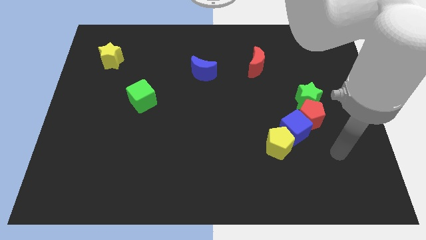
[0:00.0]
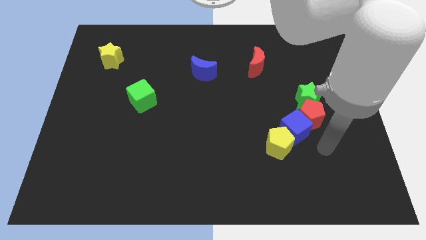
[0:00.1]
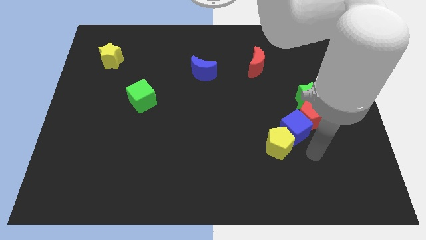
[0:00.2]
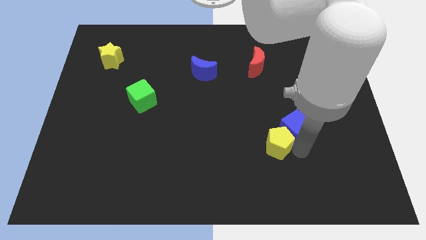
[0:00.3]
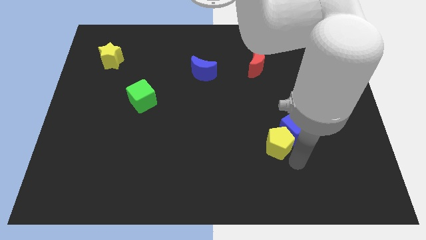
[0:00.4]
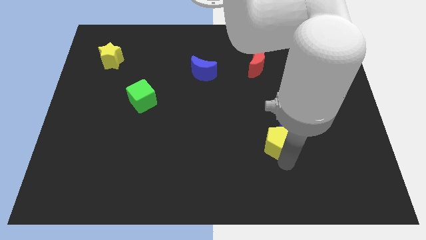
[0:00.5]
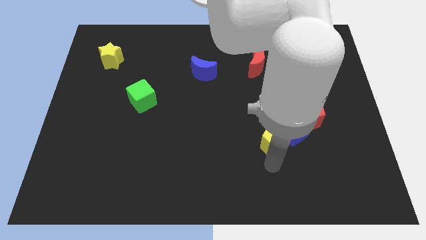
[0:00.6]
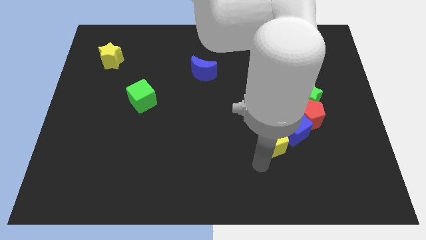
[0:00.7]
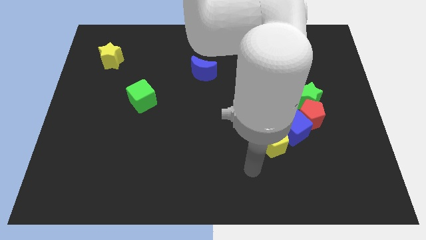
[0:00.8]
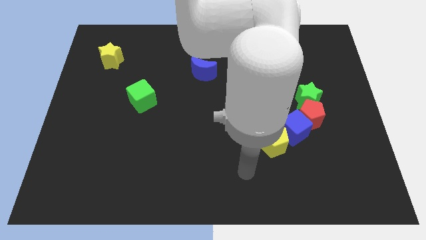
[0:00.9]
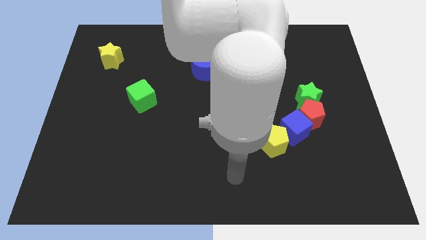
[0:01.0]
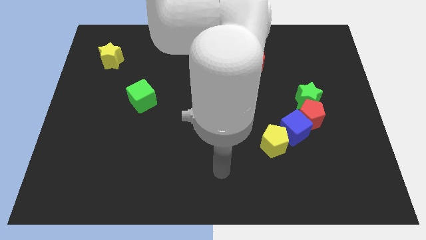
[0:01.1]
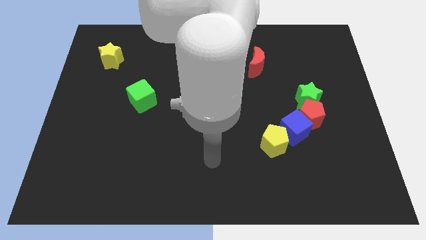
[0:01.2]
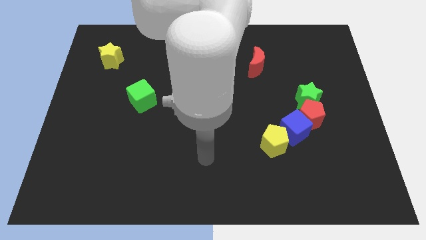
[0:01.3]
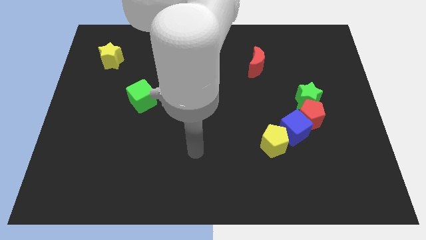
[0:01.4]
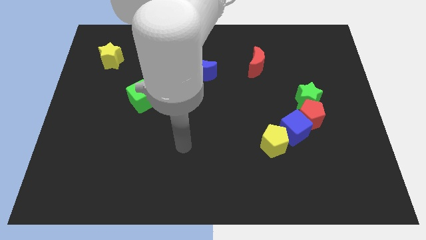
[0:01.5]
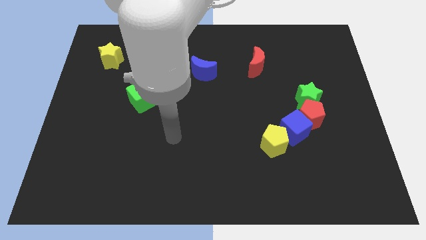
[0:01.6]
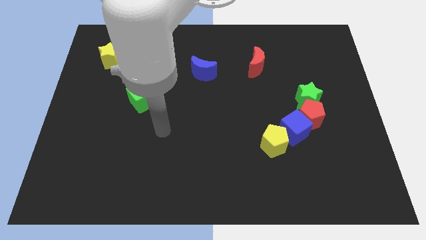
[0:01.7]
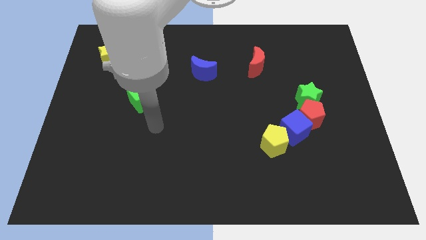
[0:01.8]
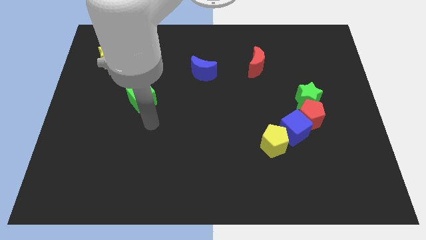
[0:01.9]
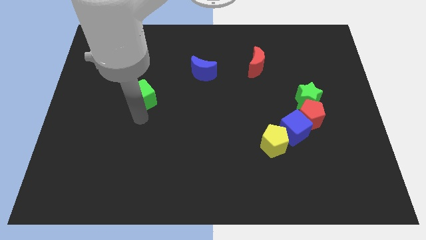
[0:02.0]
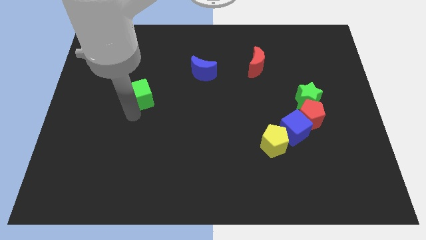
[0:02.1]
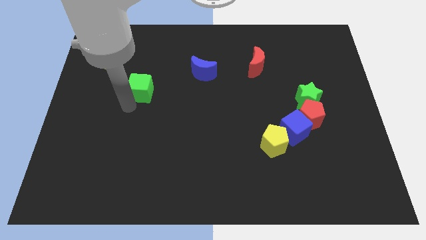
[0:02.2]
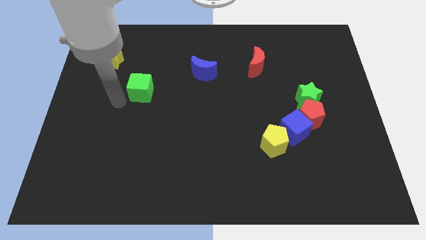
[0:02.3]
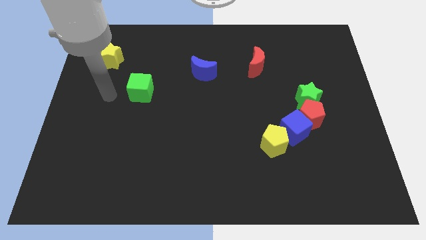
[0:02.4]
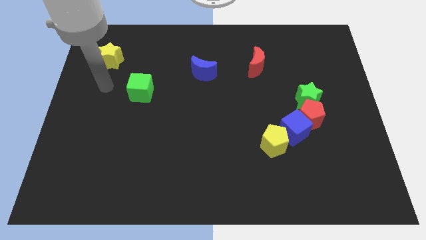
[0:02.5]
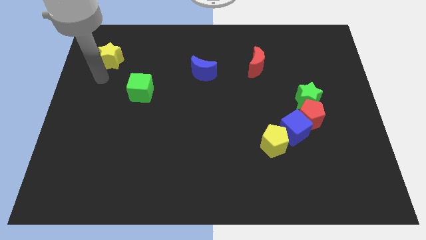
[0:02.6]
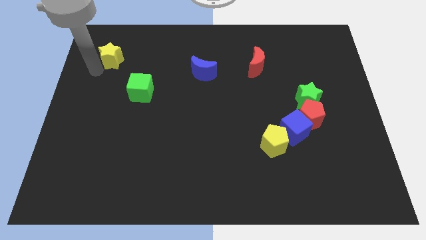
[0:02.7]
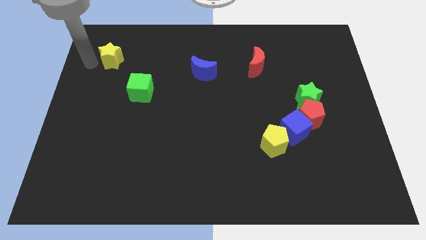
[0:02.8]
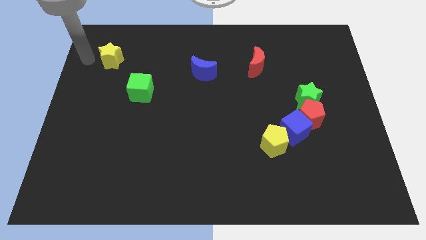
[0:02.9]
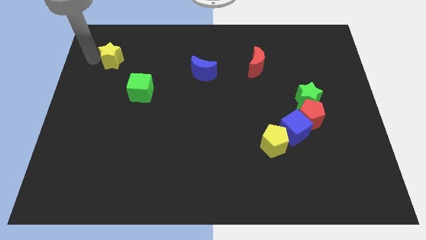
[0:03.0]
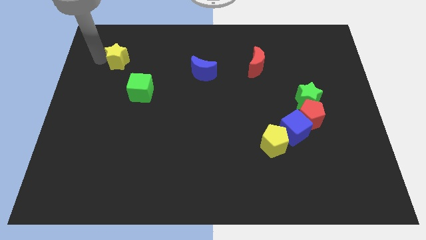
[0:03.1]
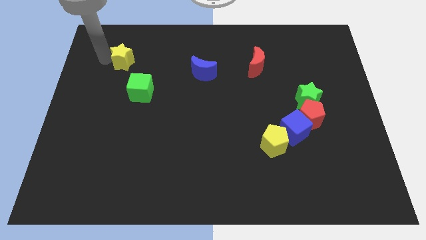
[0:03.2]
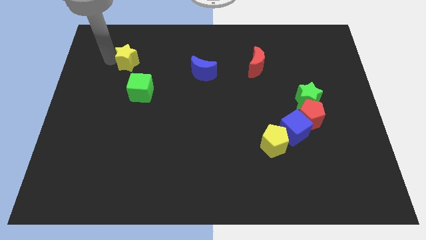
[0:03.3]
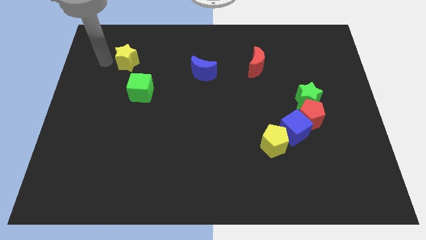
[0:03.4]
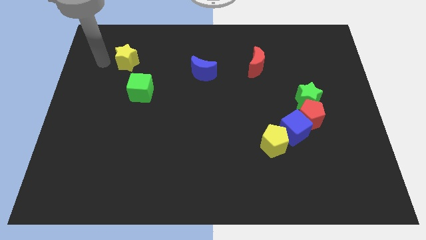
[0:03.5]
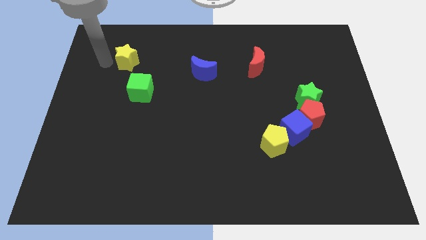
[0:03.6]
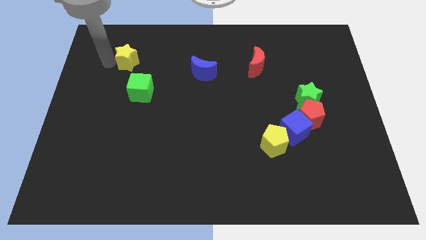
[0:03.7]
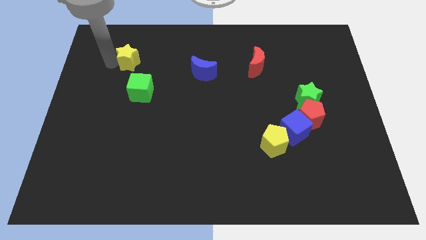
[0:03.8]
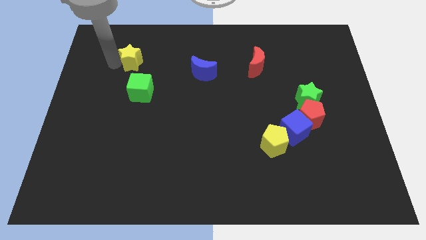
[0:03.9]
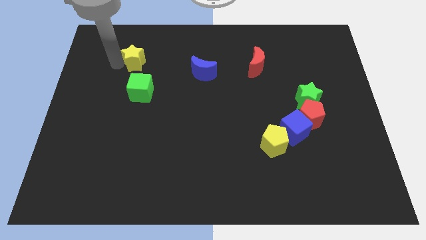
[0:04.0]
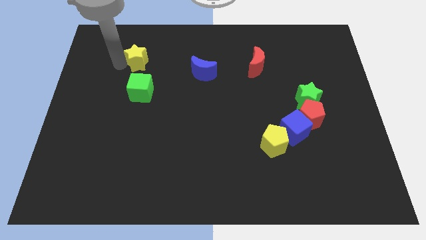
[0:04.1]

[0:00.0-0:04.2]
push the yellow star right a little bit

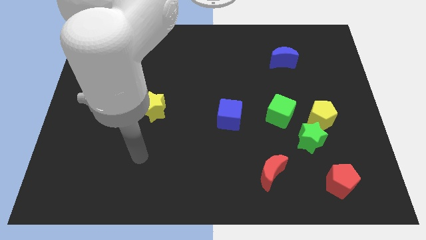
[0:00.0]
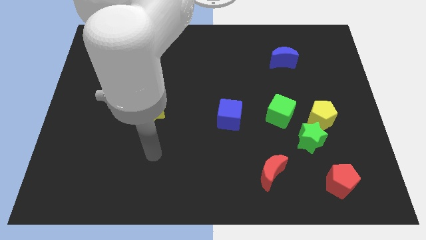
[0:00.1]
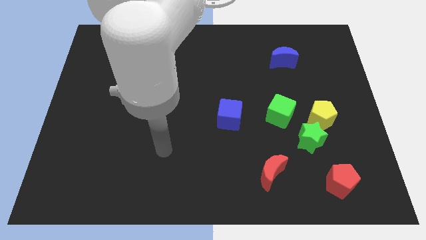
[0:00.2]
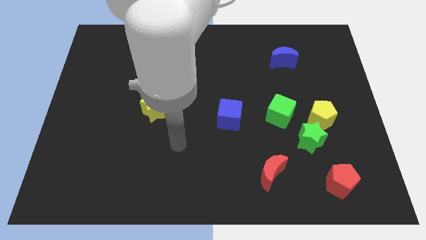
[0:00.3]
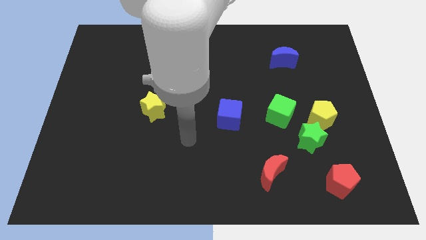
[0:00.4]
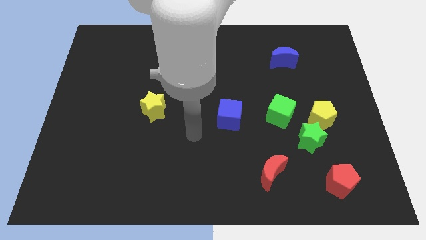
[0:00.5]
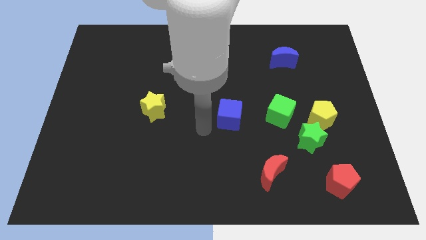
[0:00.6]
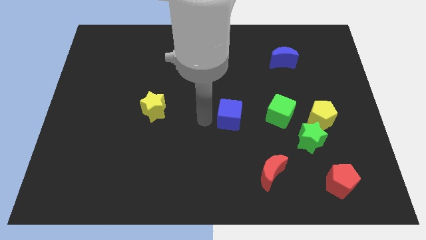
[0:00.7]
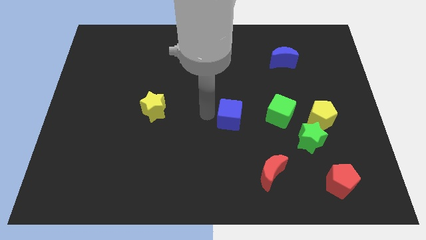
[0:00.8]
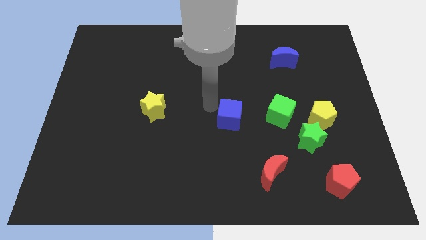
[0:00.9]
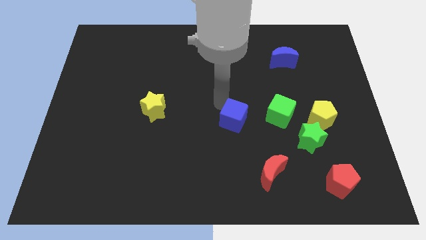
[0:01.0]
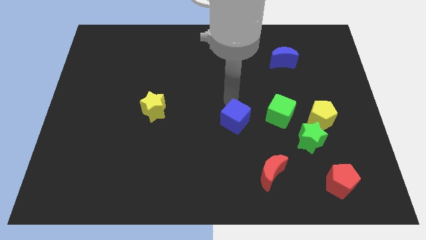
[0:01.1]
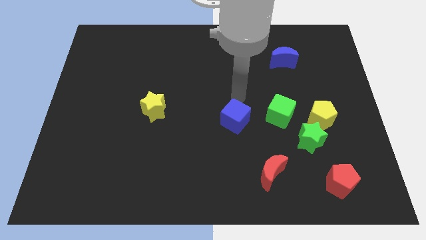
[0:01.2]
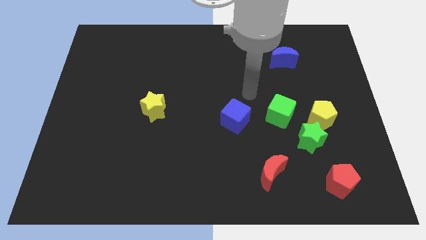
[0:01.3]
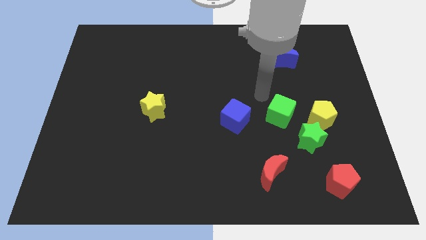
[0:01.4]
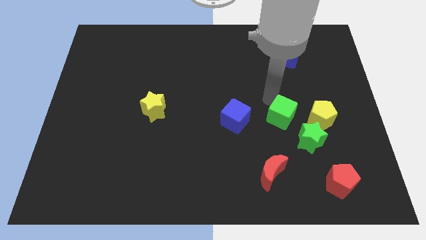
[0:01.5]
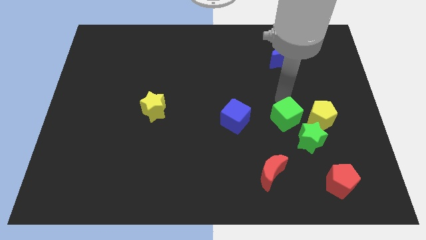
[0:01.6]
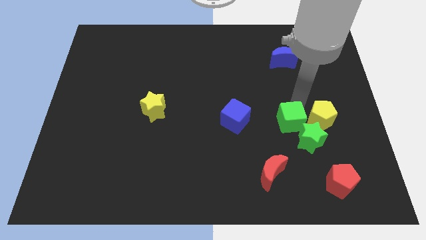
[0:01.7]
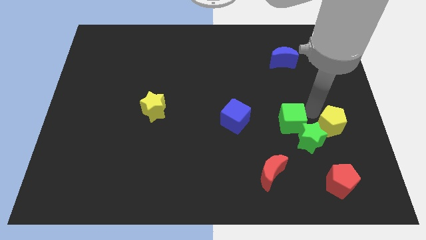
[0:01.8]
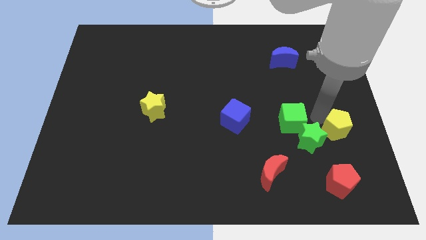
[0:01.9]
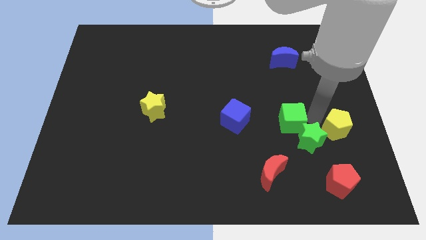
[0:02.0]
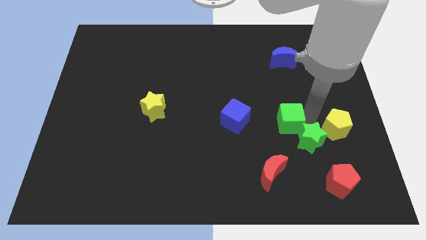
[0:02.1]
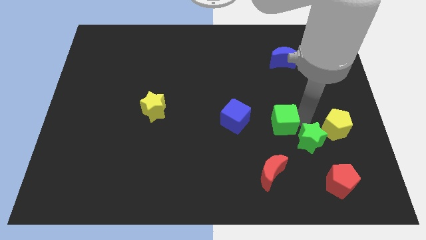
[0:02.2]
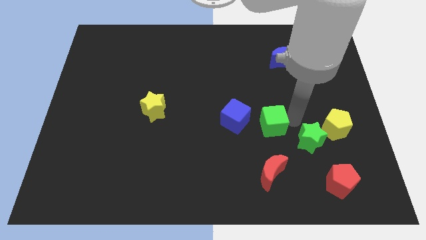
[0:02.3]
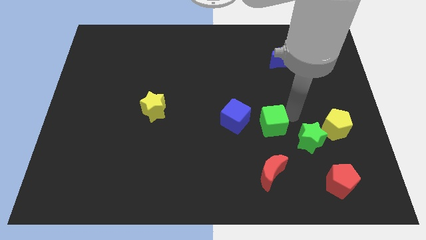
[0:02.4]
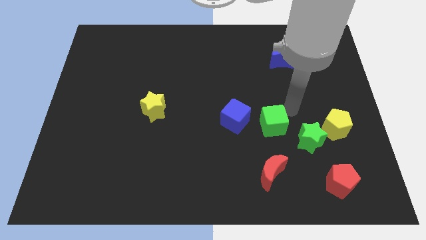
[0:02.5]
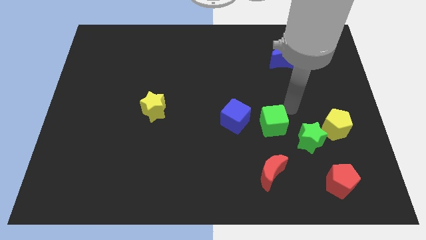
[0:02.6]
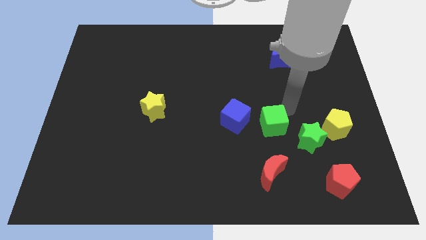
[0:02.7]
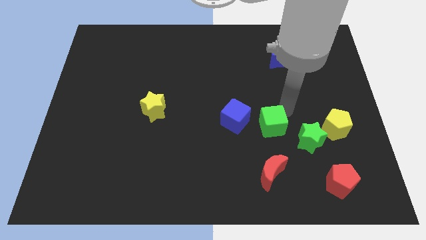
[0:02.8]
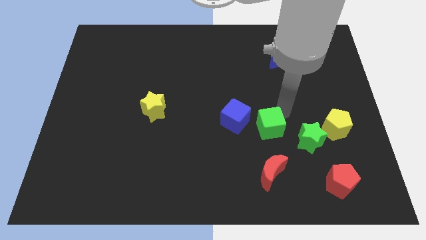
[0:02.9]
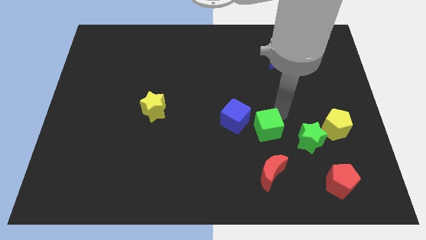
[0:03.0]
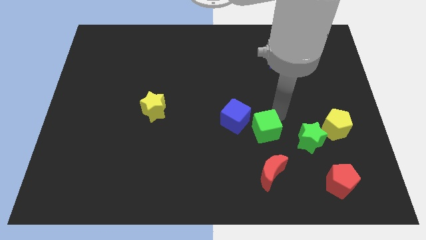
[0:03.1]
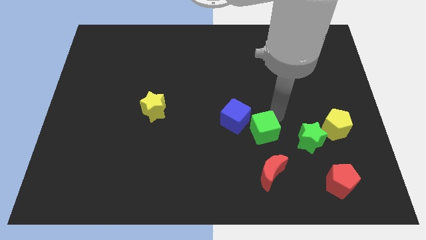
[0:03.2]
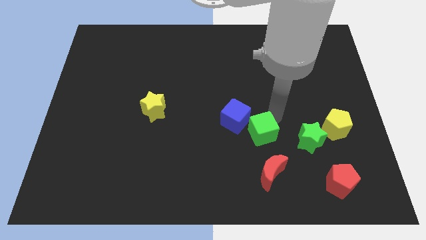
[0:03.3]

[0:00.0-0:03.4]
move the green cube somewhat diagonally downwards and to the left

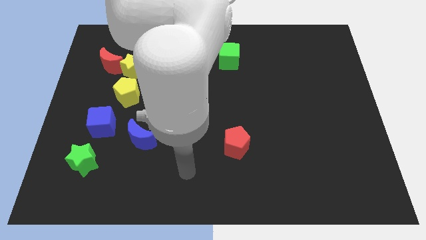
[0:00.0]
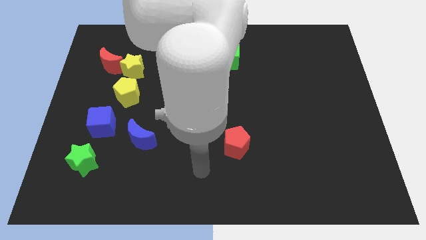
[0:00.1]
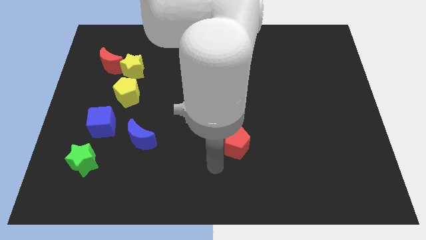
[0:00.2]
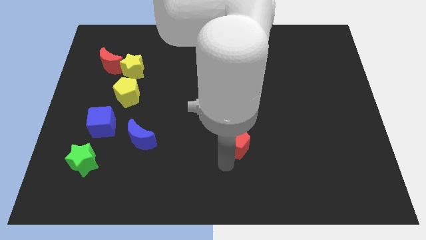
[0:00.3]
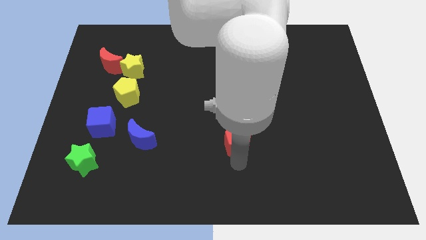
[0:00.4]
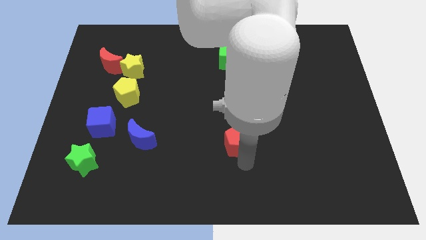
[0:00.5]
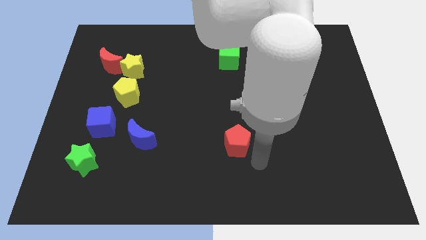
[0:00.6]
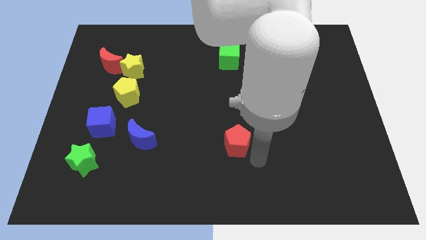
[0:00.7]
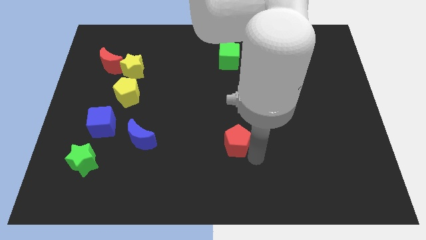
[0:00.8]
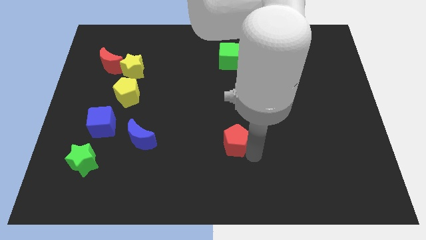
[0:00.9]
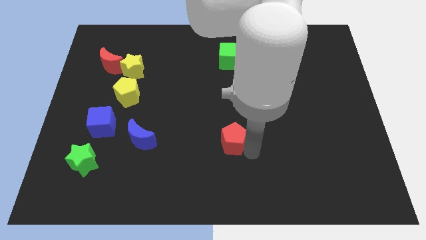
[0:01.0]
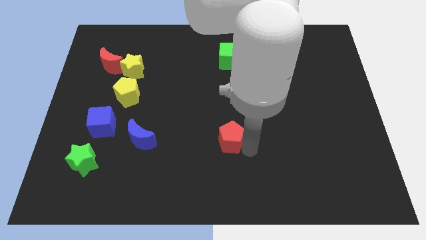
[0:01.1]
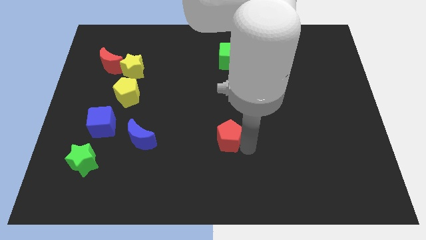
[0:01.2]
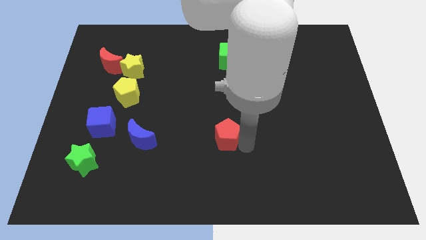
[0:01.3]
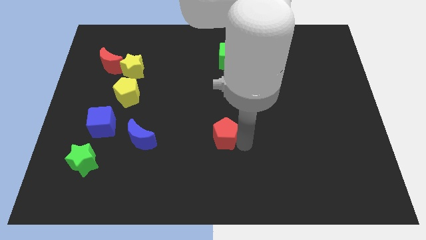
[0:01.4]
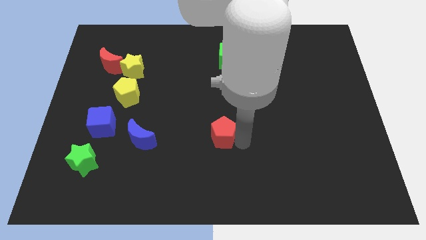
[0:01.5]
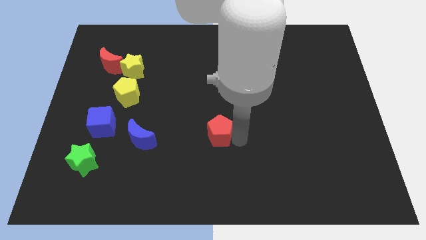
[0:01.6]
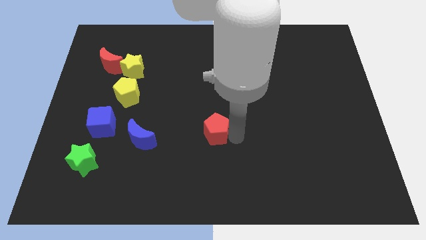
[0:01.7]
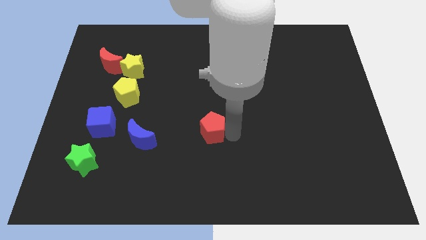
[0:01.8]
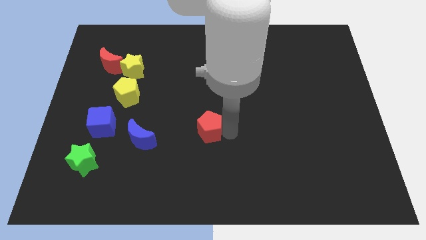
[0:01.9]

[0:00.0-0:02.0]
move the red pentagon upwards and to the left a bit
